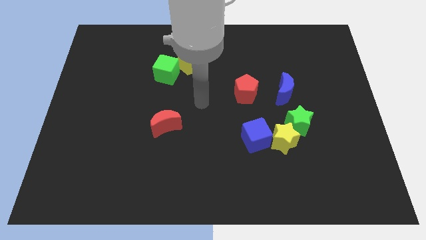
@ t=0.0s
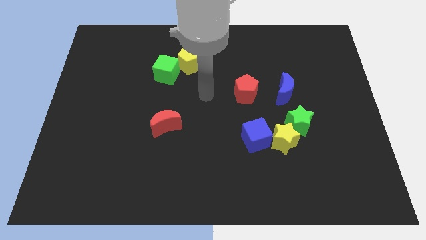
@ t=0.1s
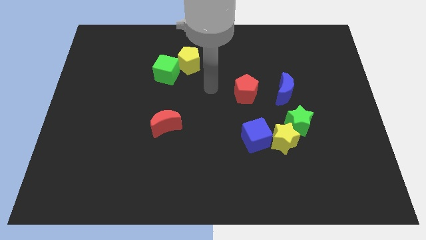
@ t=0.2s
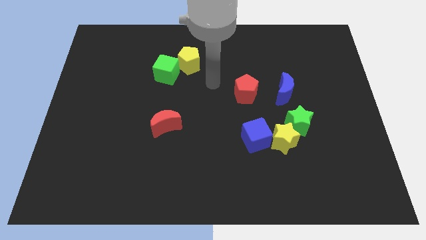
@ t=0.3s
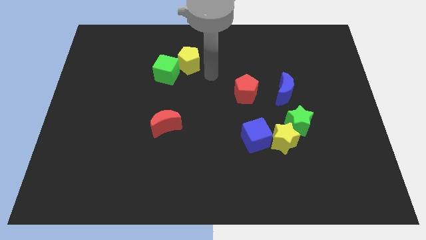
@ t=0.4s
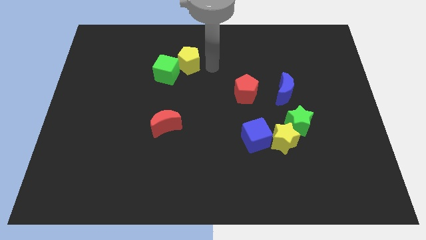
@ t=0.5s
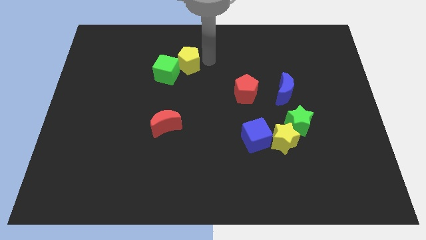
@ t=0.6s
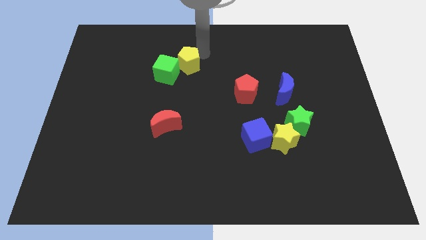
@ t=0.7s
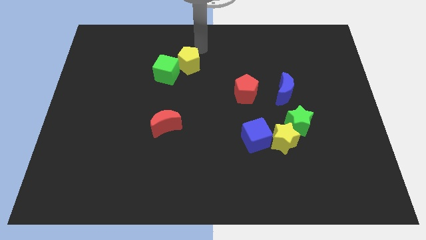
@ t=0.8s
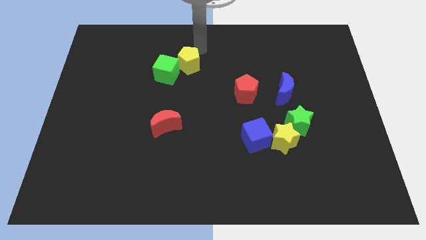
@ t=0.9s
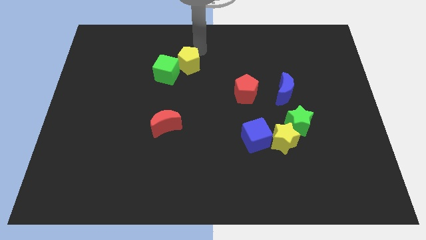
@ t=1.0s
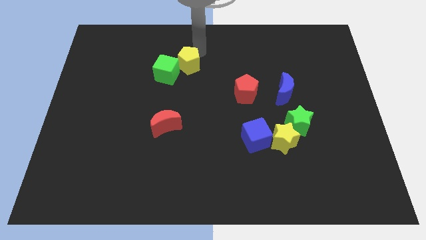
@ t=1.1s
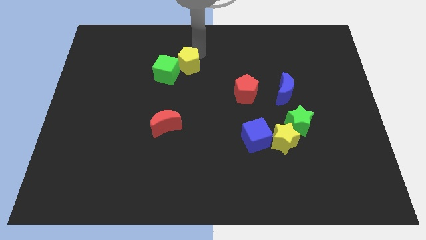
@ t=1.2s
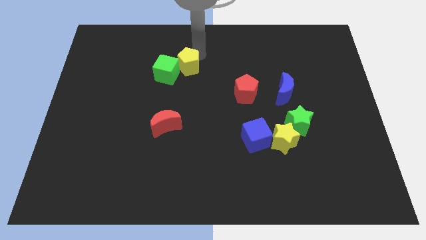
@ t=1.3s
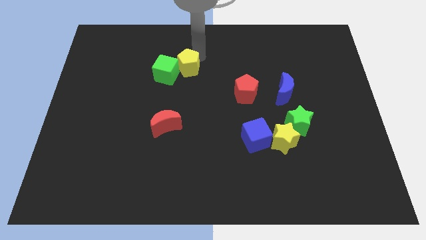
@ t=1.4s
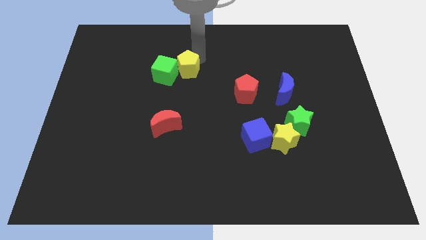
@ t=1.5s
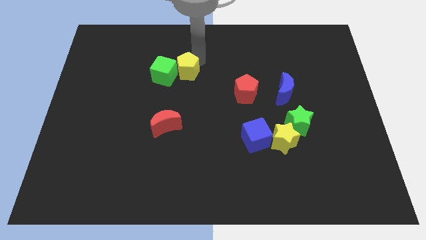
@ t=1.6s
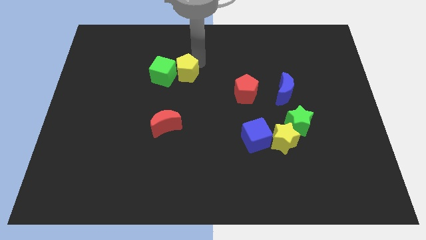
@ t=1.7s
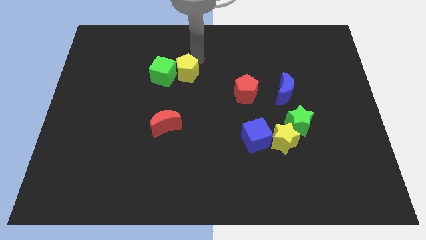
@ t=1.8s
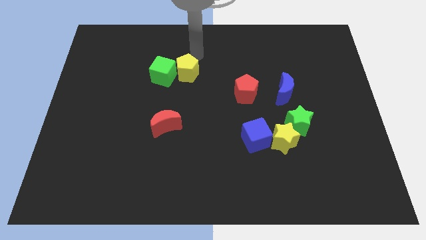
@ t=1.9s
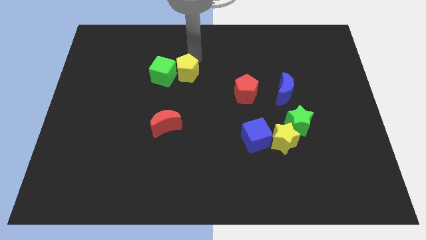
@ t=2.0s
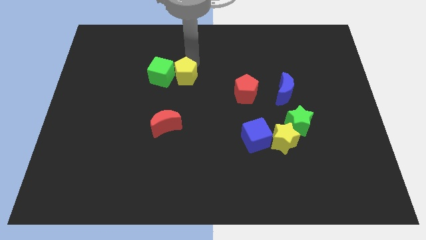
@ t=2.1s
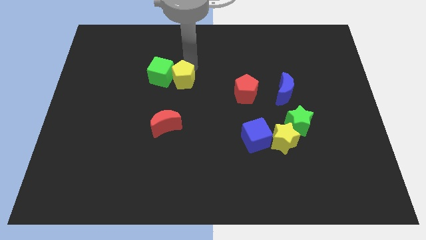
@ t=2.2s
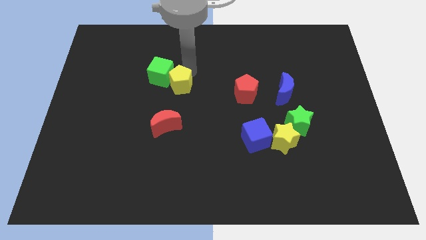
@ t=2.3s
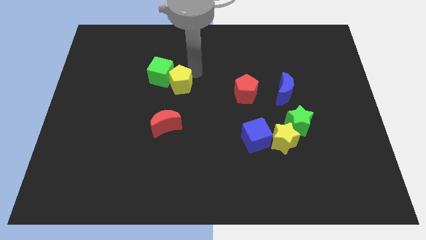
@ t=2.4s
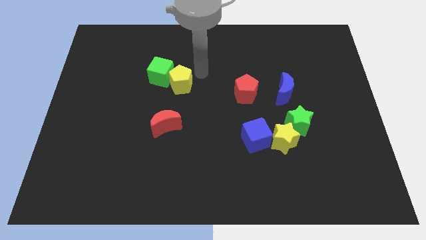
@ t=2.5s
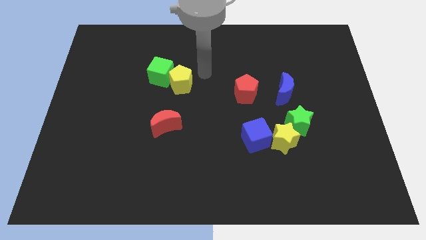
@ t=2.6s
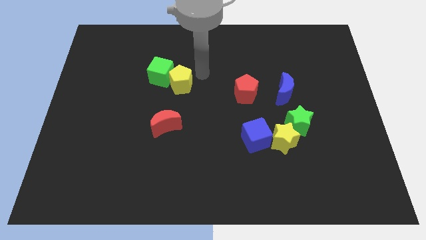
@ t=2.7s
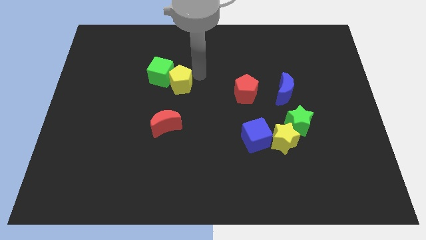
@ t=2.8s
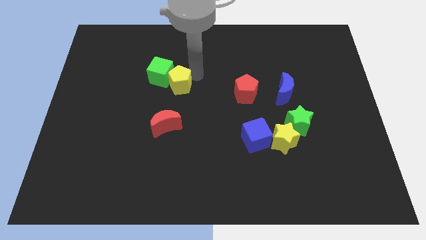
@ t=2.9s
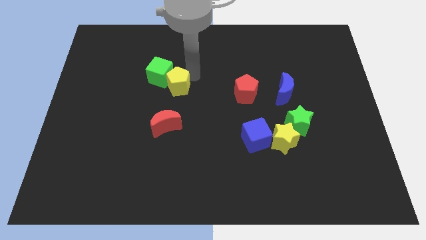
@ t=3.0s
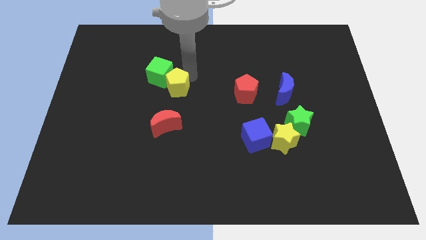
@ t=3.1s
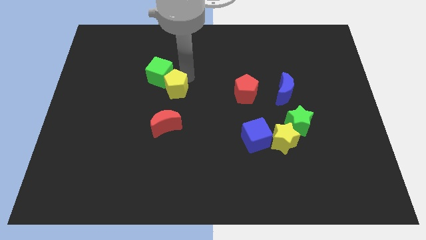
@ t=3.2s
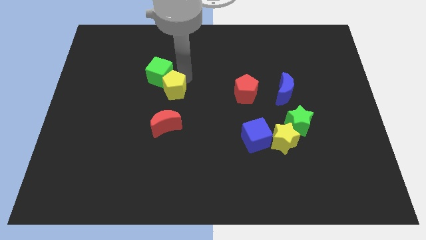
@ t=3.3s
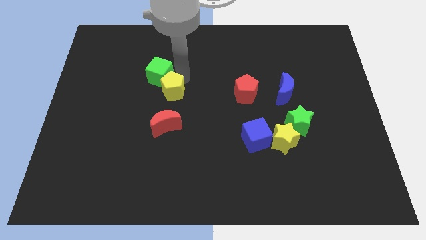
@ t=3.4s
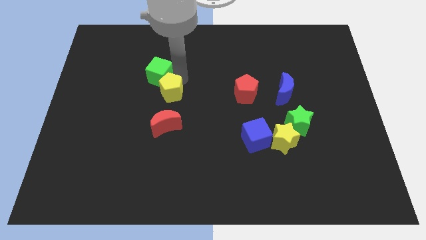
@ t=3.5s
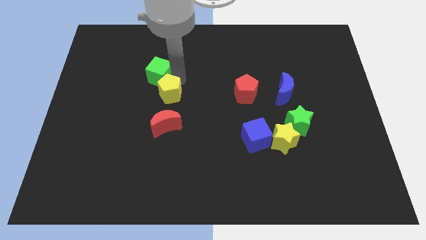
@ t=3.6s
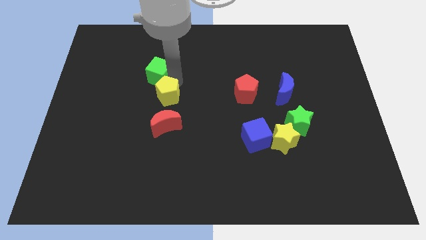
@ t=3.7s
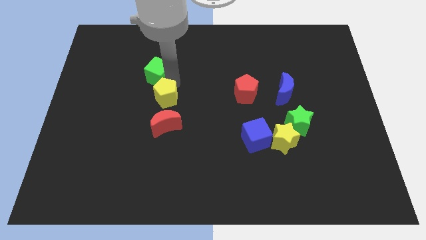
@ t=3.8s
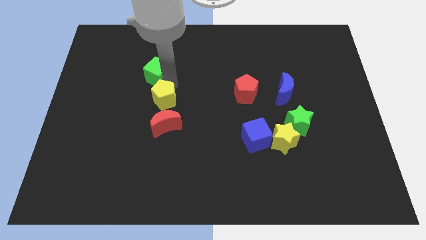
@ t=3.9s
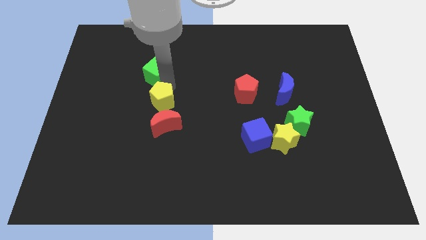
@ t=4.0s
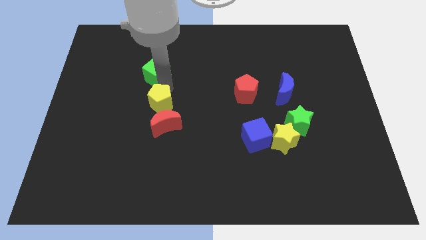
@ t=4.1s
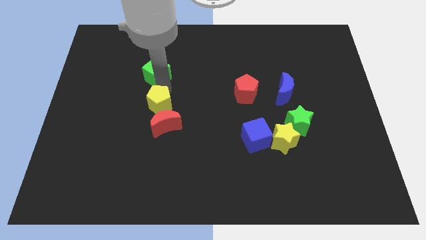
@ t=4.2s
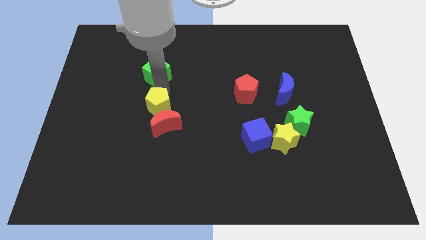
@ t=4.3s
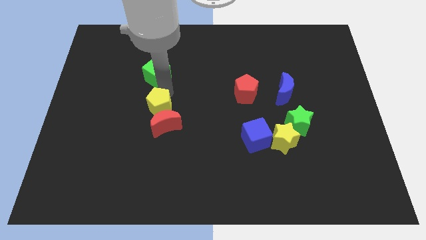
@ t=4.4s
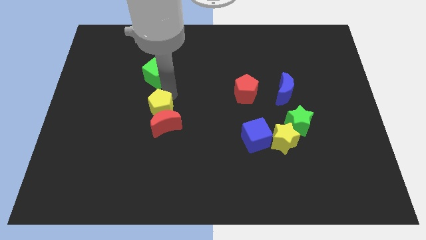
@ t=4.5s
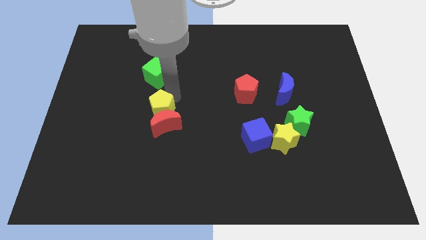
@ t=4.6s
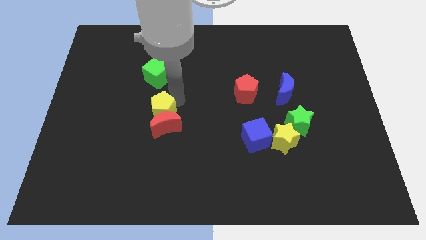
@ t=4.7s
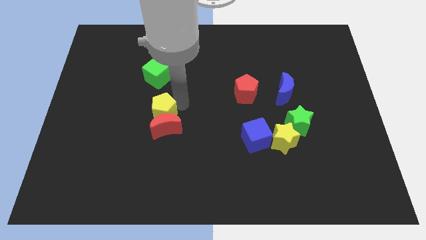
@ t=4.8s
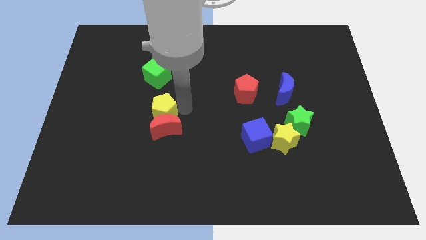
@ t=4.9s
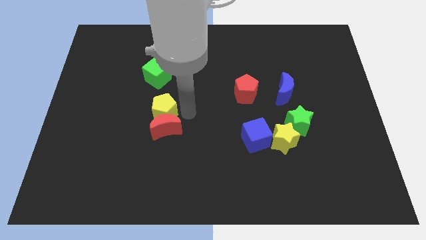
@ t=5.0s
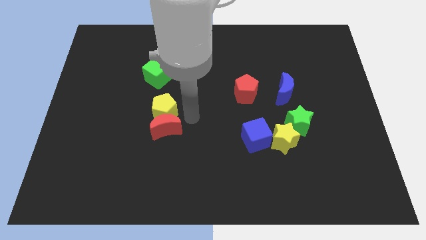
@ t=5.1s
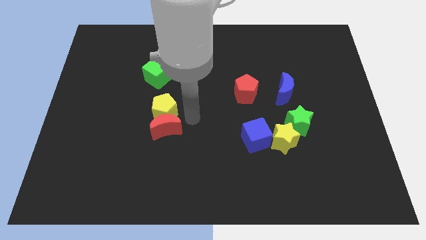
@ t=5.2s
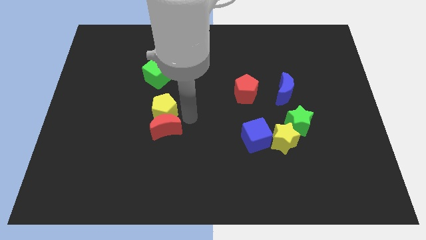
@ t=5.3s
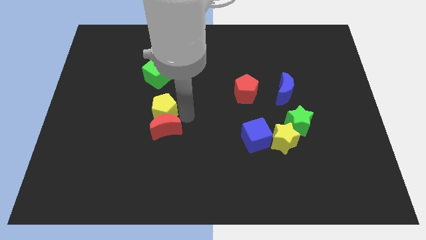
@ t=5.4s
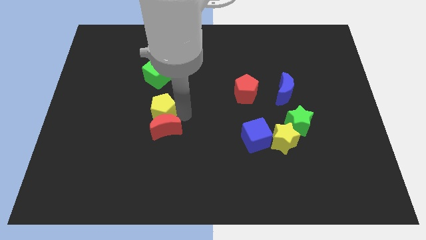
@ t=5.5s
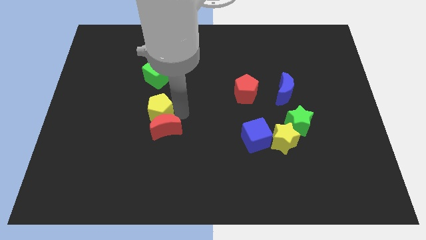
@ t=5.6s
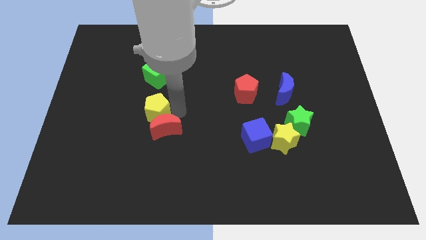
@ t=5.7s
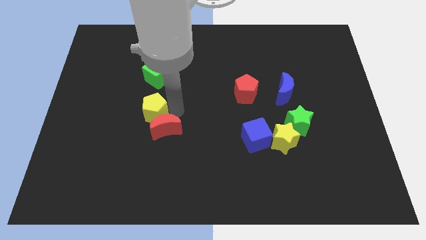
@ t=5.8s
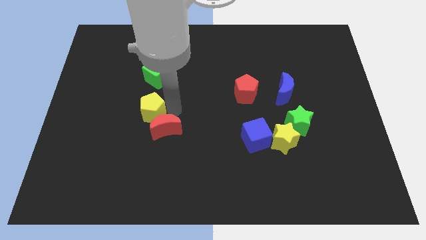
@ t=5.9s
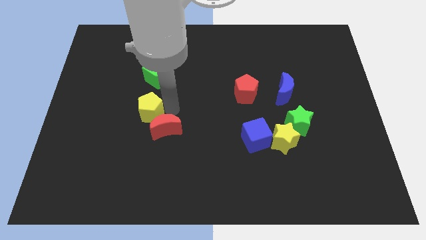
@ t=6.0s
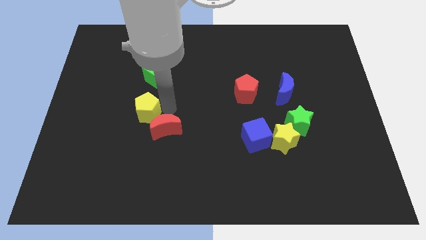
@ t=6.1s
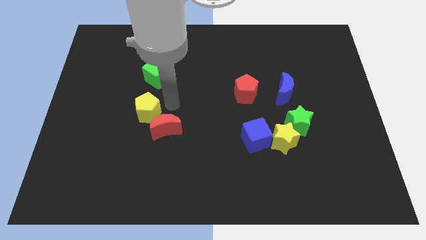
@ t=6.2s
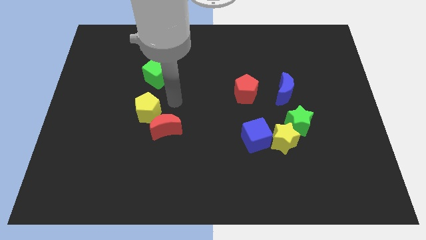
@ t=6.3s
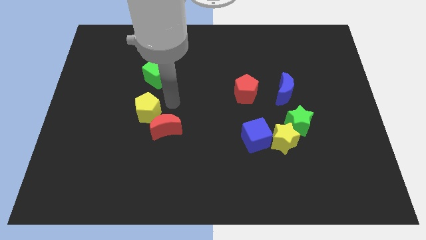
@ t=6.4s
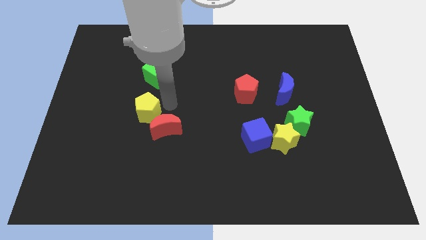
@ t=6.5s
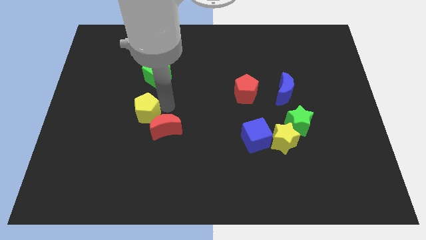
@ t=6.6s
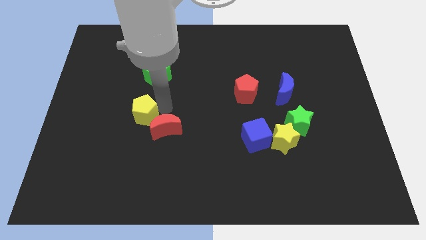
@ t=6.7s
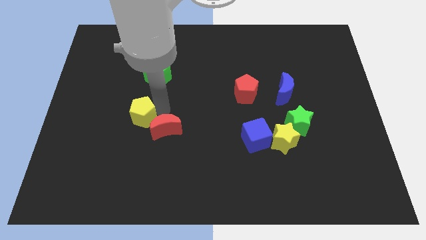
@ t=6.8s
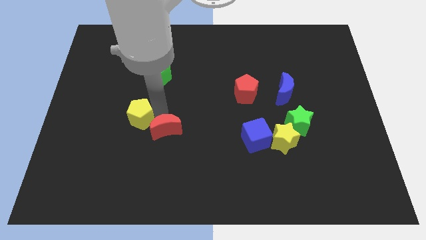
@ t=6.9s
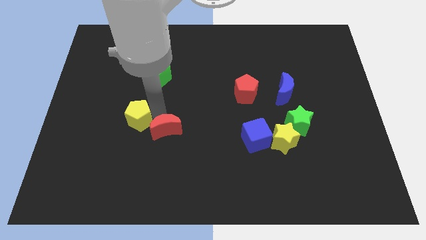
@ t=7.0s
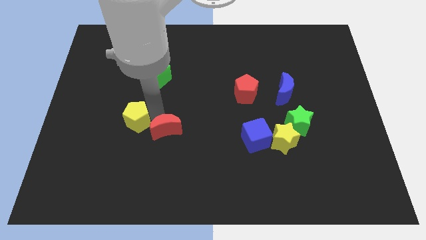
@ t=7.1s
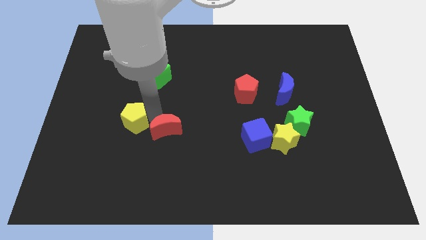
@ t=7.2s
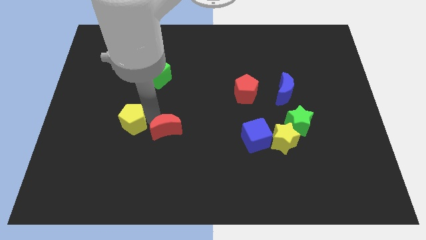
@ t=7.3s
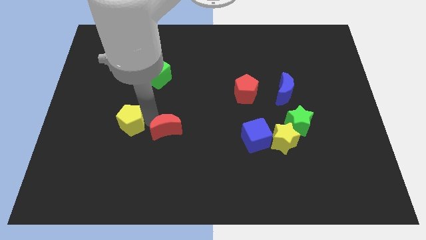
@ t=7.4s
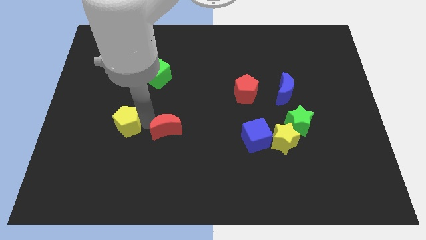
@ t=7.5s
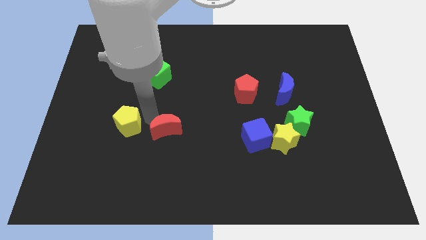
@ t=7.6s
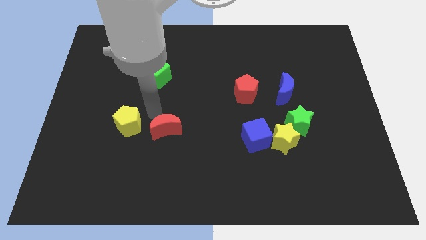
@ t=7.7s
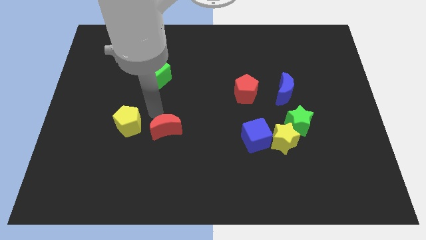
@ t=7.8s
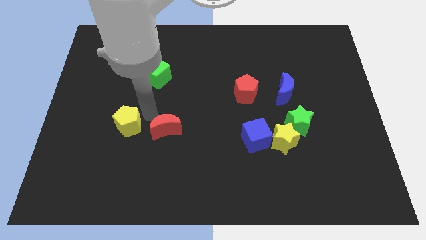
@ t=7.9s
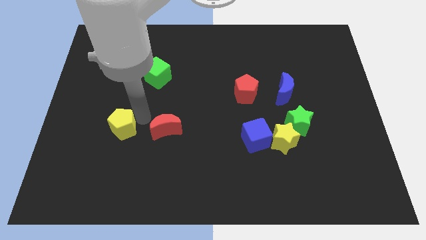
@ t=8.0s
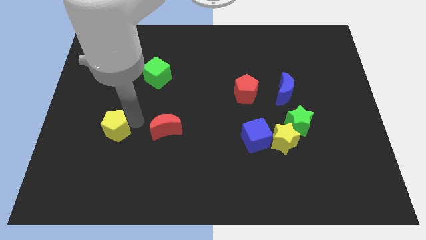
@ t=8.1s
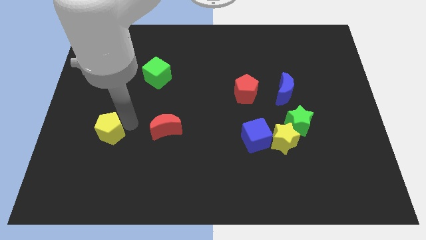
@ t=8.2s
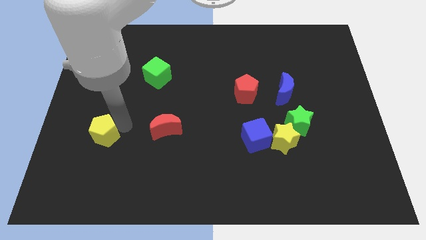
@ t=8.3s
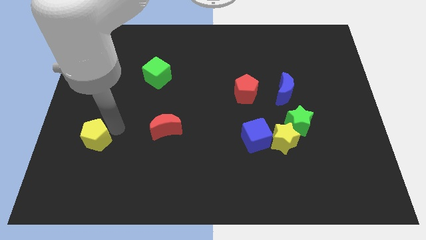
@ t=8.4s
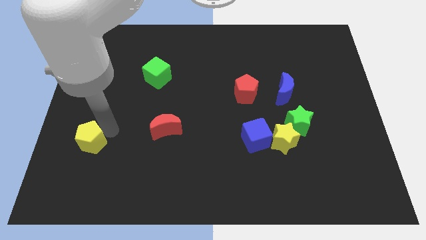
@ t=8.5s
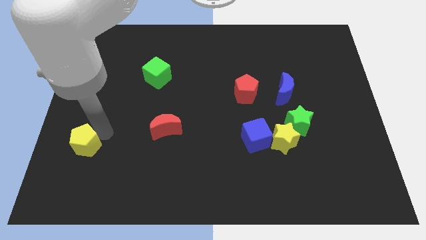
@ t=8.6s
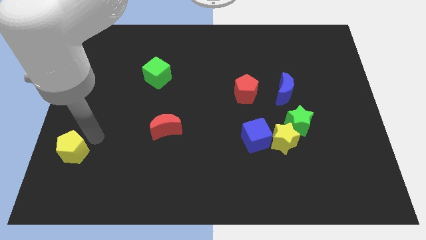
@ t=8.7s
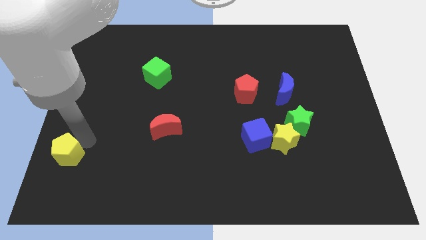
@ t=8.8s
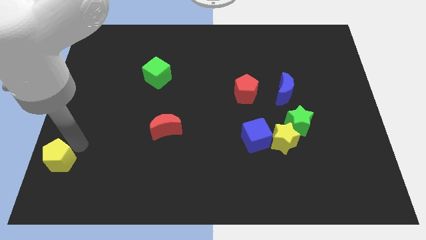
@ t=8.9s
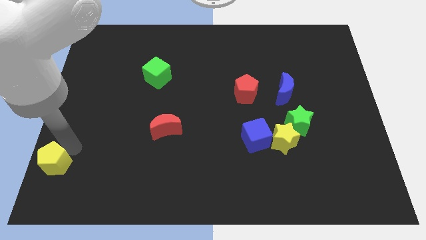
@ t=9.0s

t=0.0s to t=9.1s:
put the yellow pentagon to the bottom left
